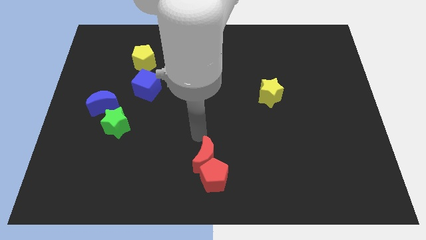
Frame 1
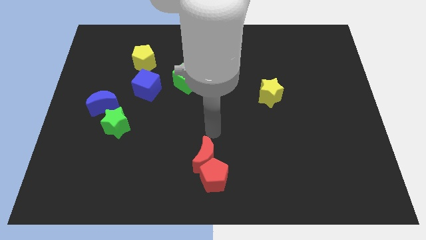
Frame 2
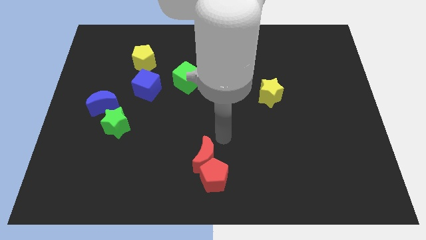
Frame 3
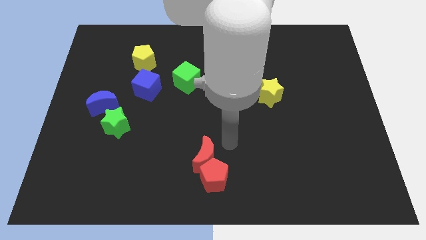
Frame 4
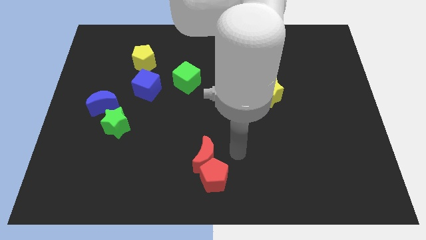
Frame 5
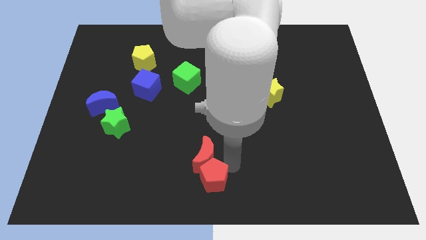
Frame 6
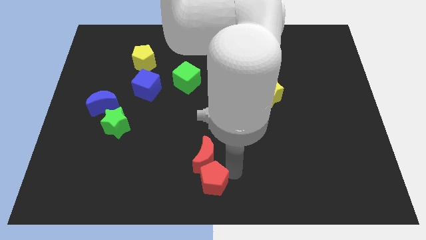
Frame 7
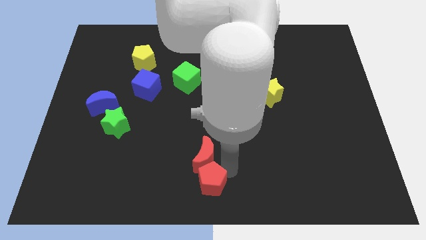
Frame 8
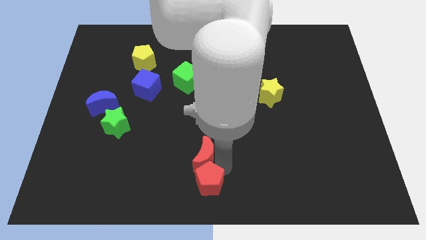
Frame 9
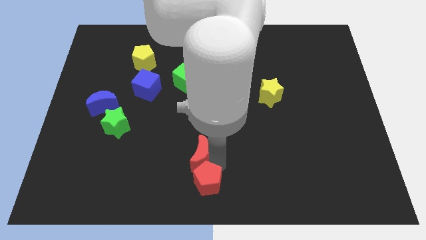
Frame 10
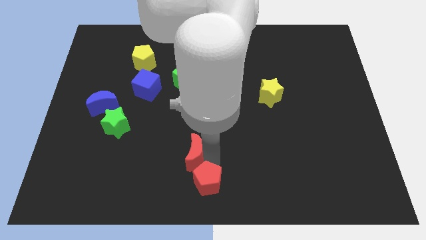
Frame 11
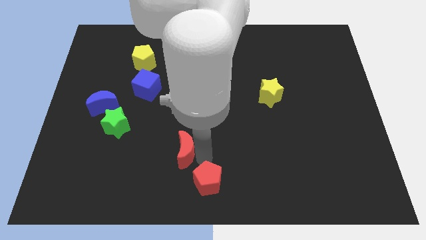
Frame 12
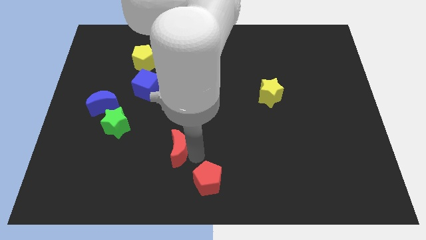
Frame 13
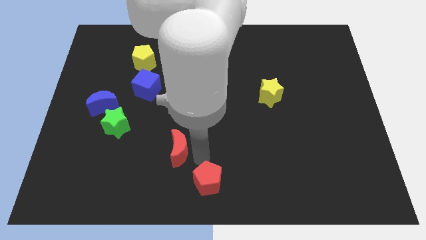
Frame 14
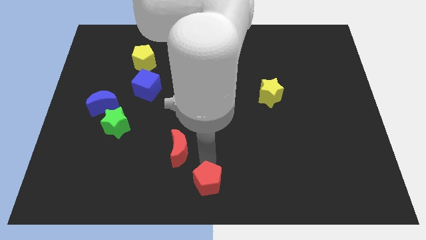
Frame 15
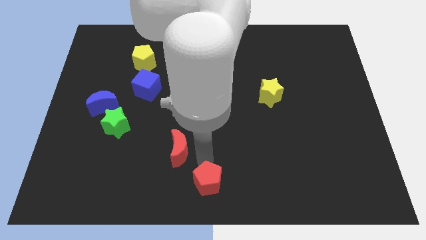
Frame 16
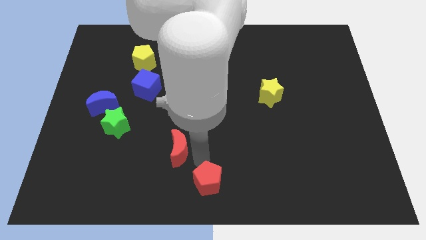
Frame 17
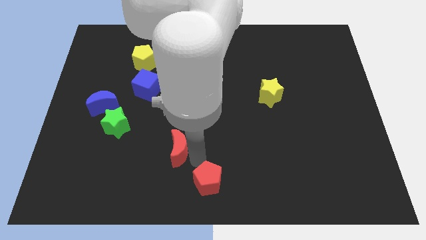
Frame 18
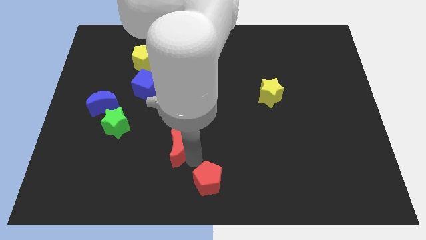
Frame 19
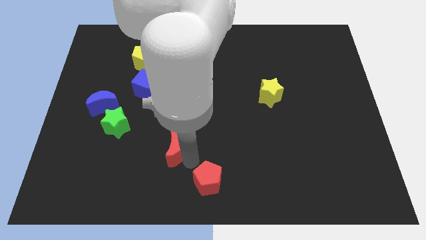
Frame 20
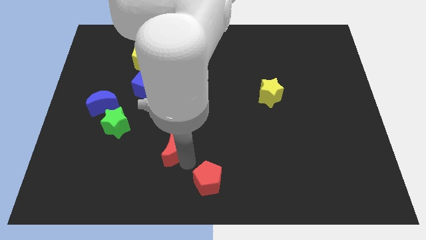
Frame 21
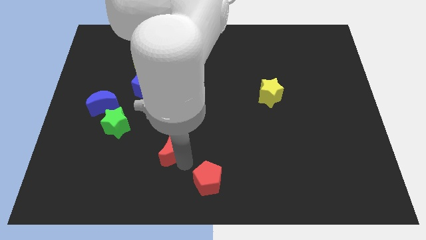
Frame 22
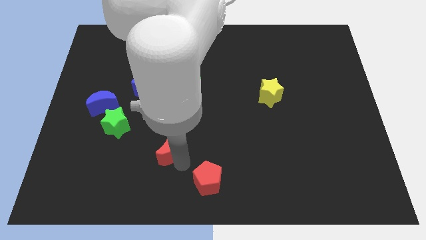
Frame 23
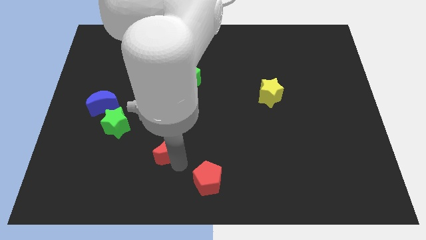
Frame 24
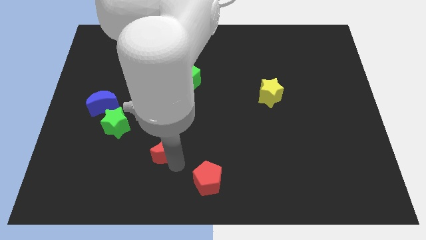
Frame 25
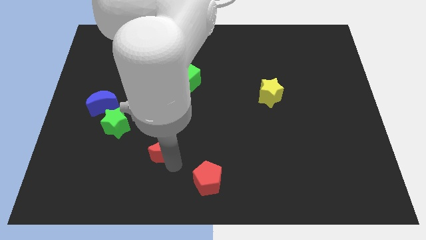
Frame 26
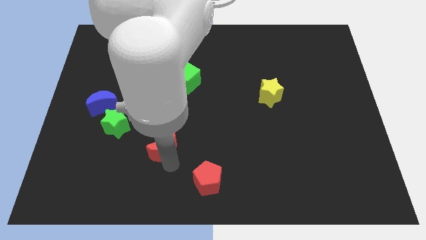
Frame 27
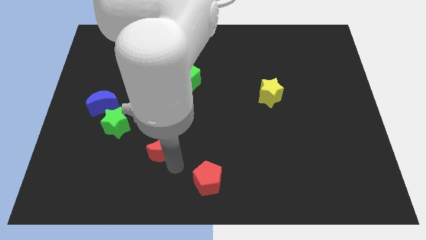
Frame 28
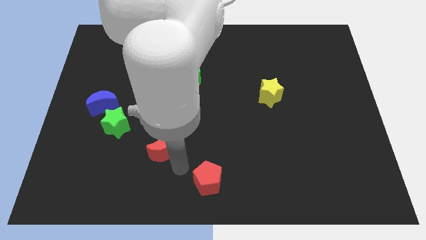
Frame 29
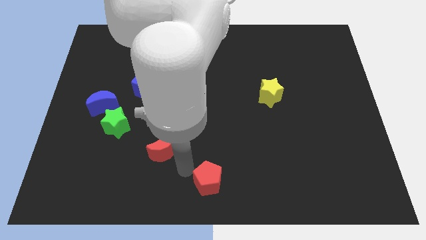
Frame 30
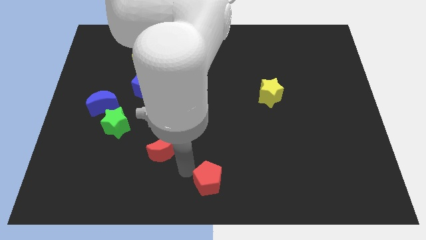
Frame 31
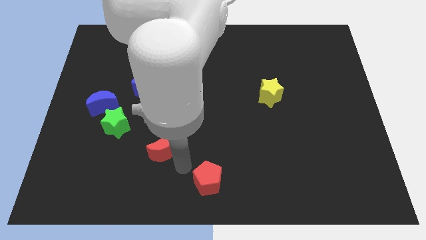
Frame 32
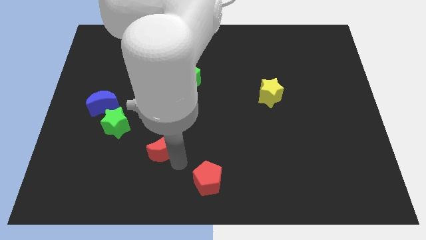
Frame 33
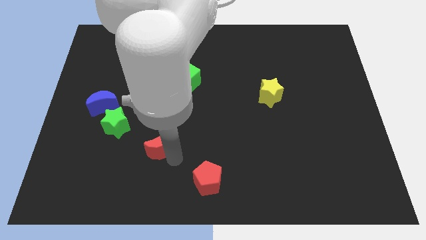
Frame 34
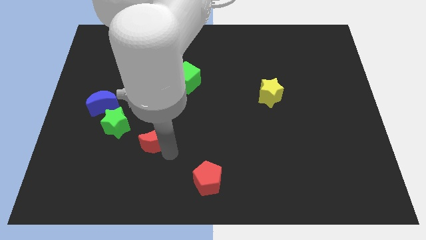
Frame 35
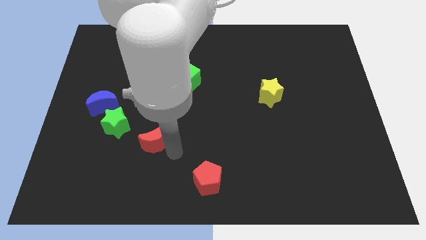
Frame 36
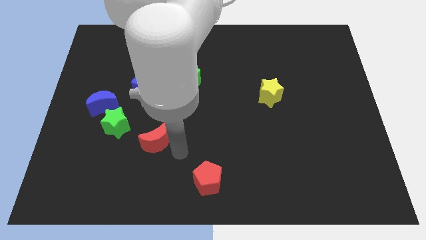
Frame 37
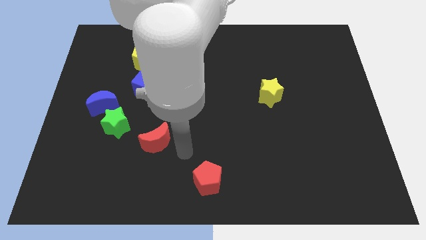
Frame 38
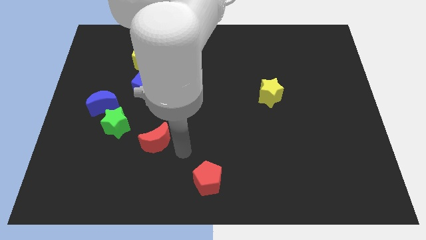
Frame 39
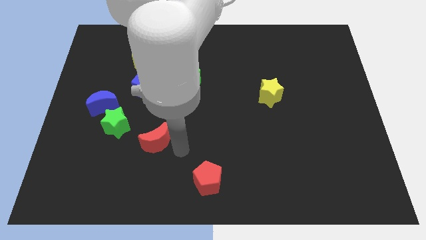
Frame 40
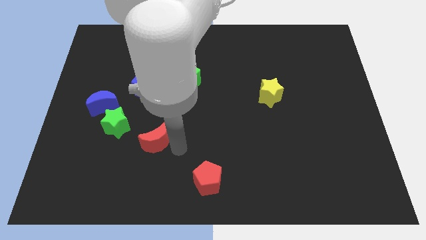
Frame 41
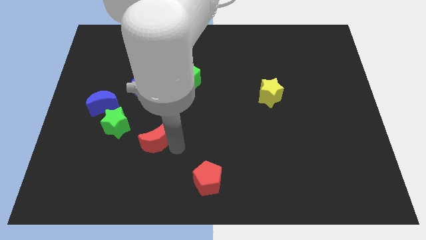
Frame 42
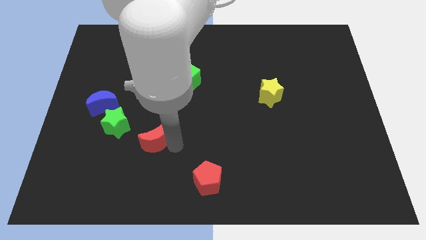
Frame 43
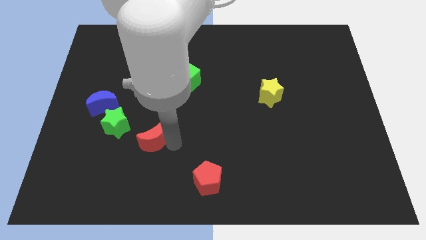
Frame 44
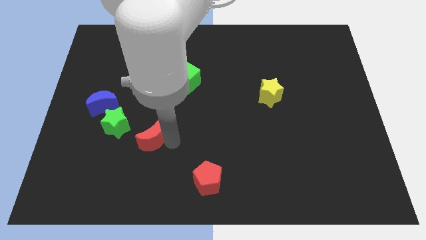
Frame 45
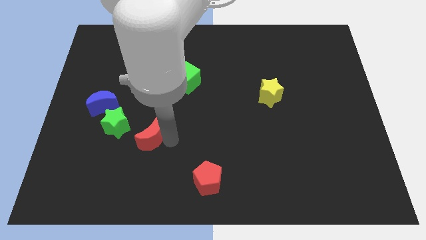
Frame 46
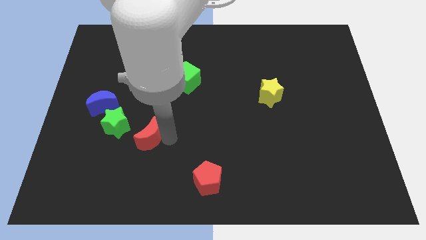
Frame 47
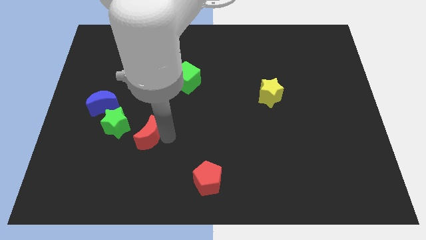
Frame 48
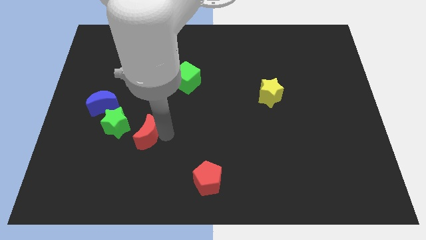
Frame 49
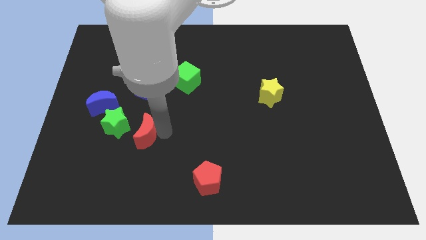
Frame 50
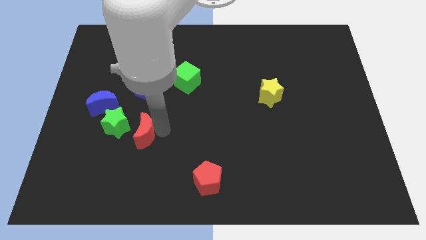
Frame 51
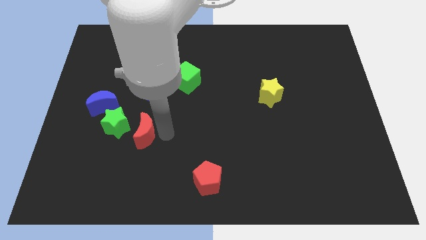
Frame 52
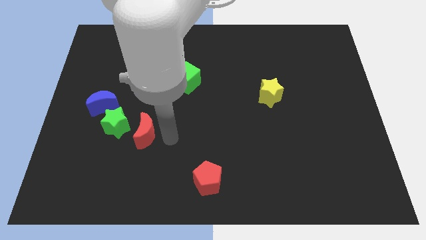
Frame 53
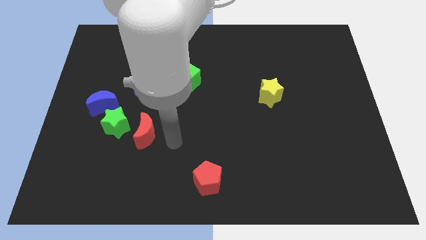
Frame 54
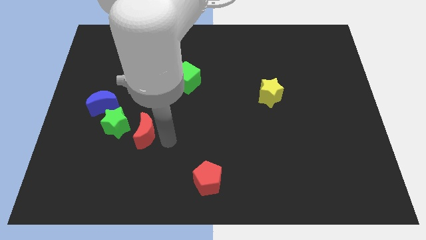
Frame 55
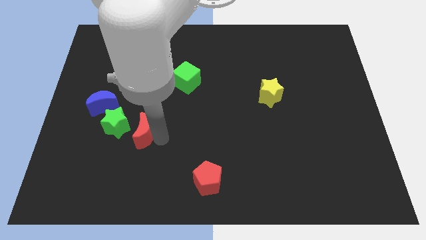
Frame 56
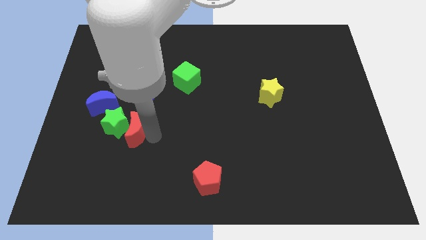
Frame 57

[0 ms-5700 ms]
put the red moon towards the green star

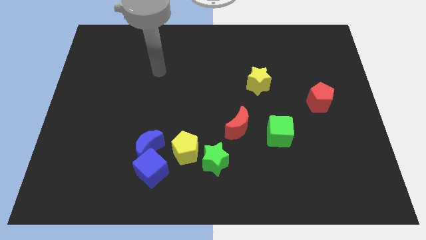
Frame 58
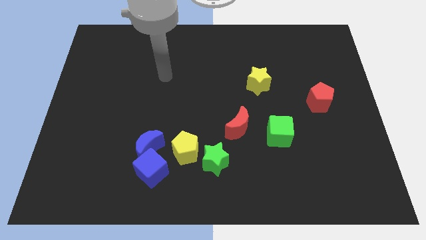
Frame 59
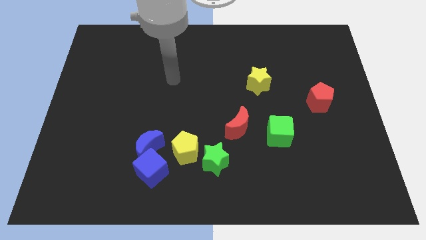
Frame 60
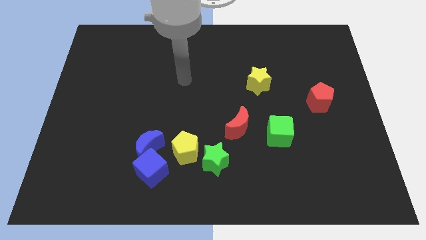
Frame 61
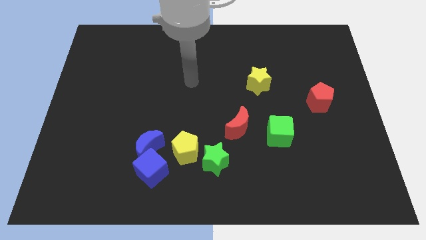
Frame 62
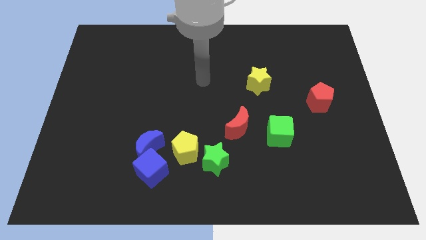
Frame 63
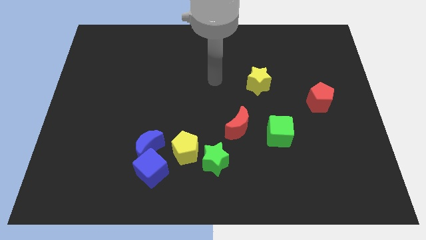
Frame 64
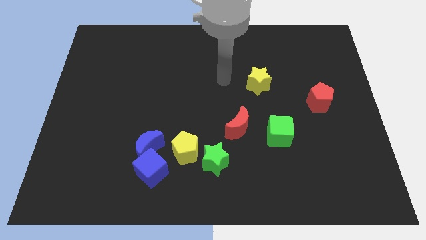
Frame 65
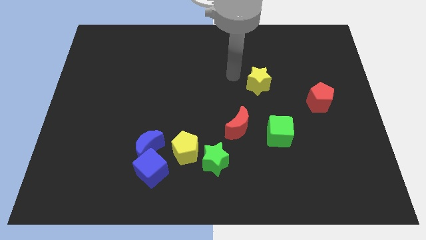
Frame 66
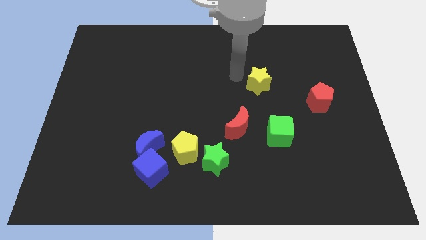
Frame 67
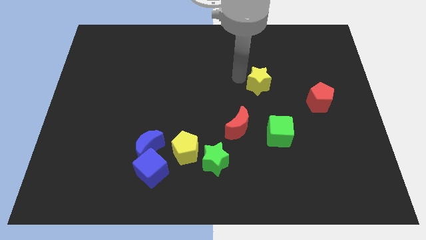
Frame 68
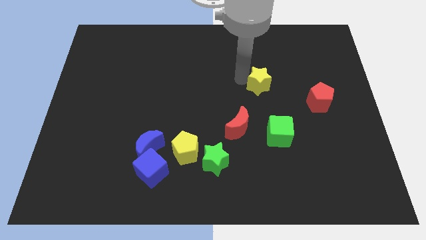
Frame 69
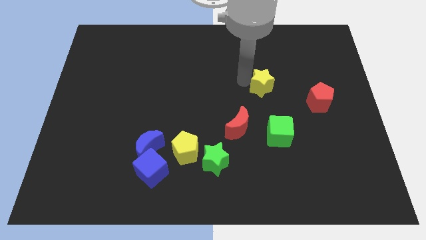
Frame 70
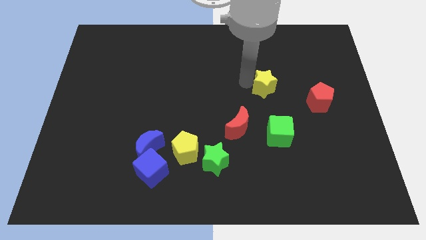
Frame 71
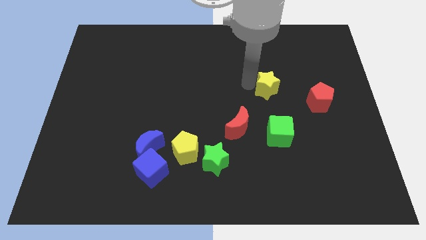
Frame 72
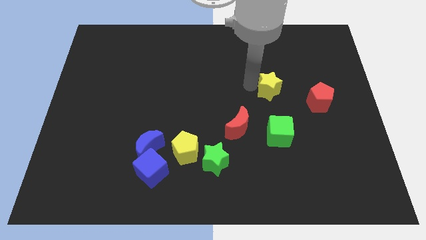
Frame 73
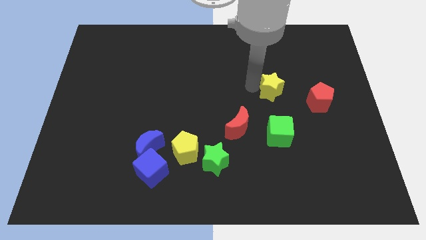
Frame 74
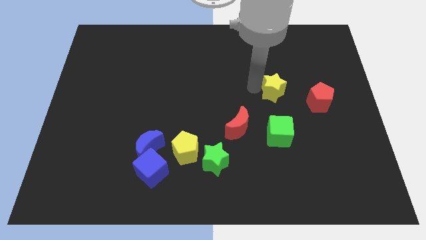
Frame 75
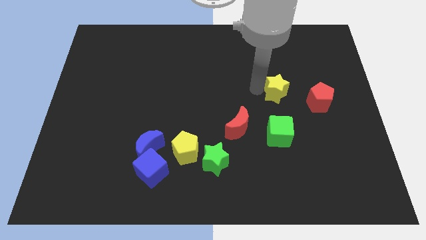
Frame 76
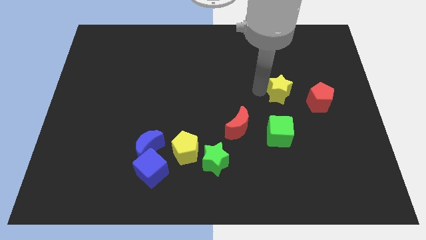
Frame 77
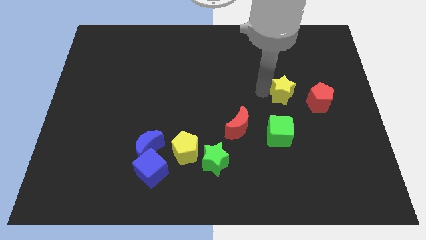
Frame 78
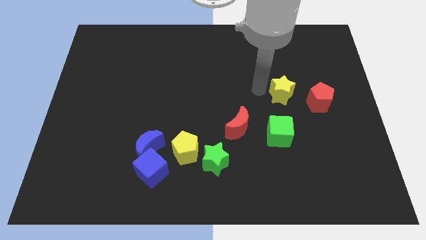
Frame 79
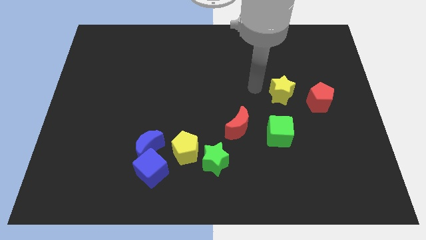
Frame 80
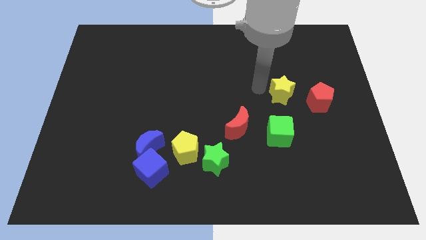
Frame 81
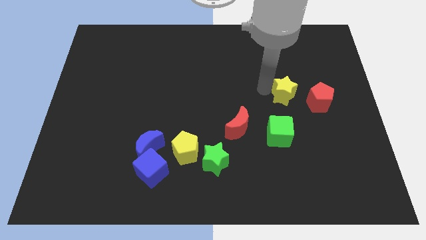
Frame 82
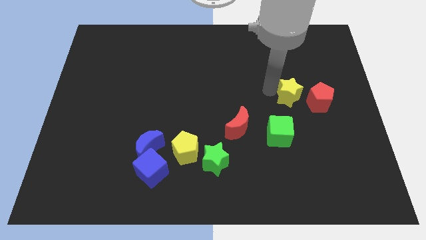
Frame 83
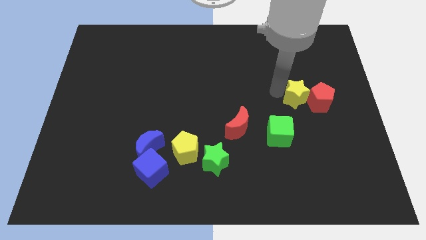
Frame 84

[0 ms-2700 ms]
push the yellow star to the red pentagon
